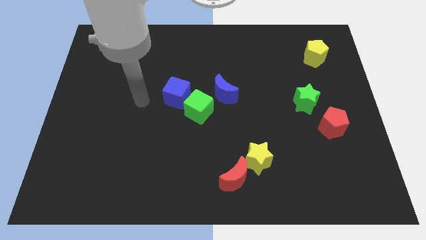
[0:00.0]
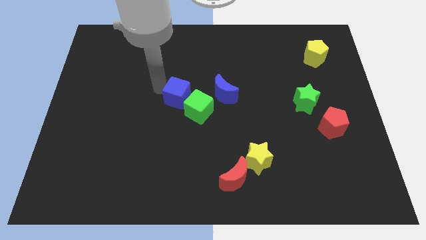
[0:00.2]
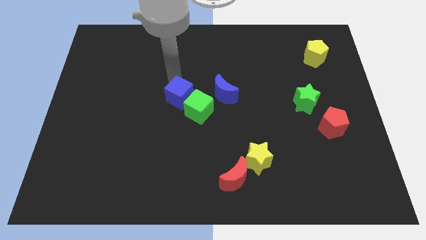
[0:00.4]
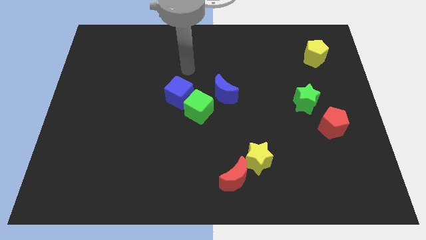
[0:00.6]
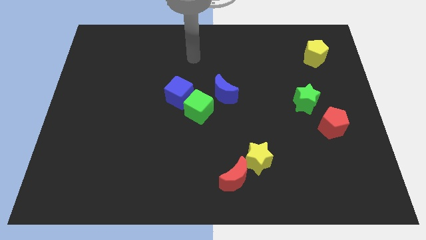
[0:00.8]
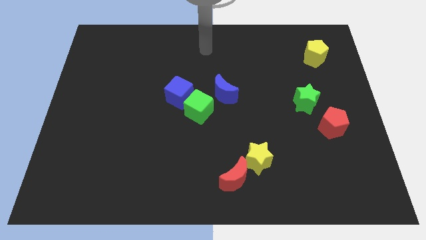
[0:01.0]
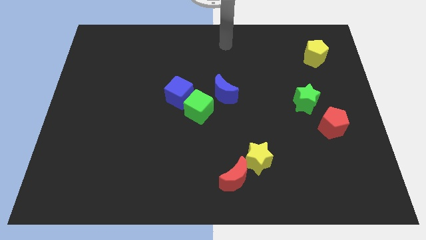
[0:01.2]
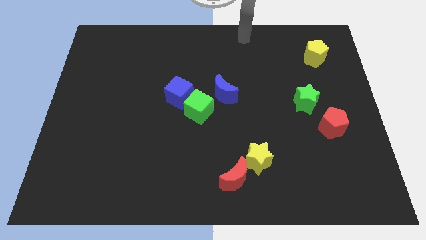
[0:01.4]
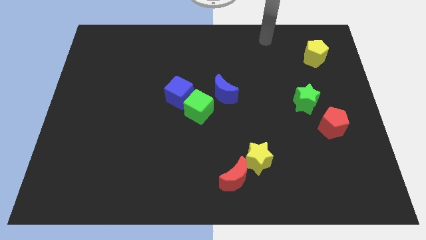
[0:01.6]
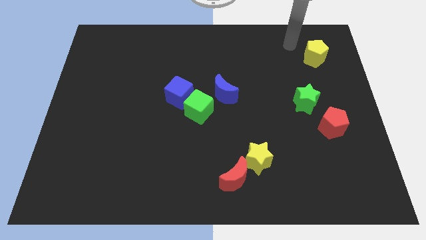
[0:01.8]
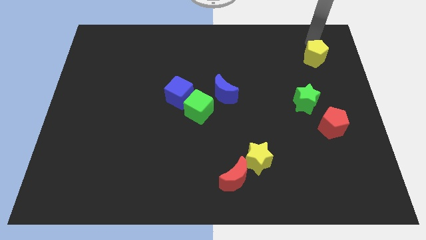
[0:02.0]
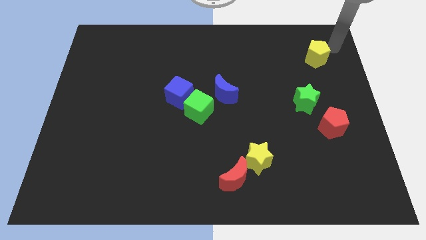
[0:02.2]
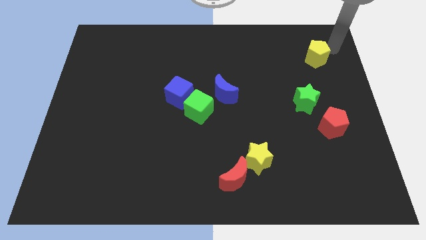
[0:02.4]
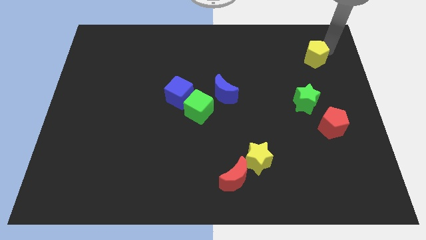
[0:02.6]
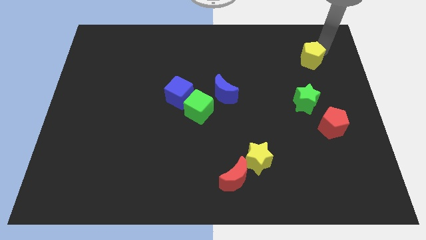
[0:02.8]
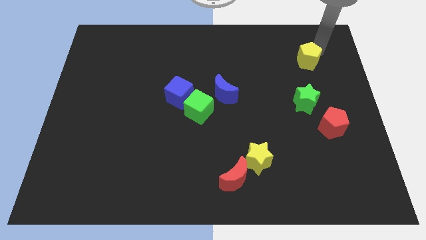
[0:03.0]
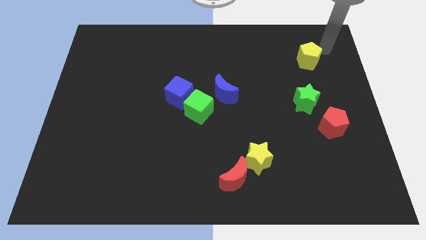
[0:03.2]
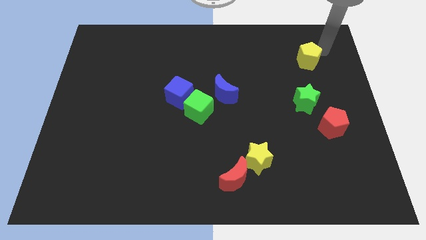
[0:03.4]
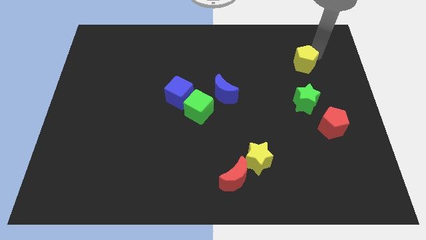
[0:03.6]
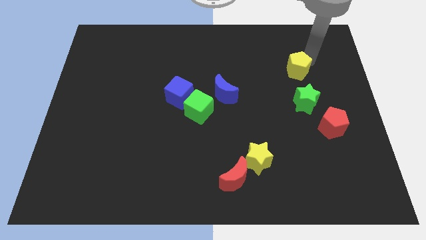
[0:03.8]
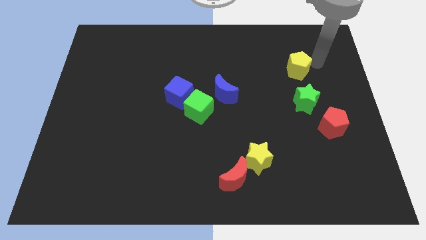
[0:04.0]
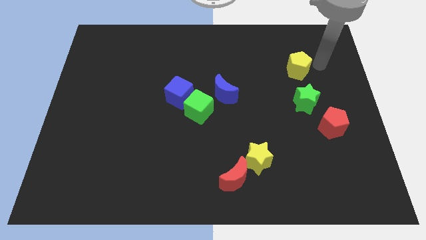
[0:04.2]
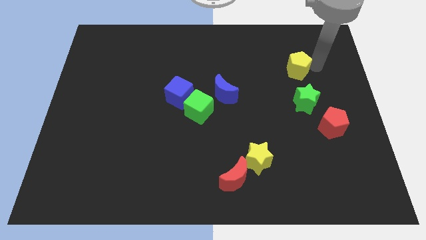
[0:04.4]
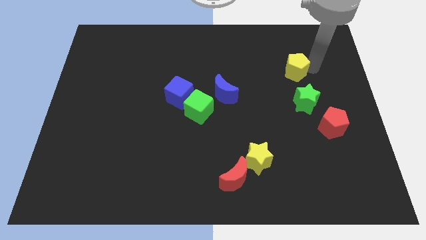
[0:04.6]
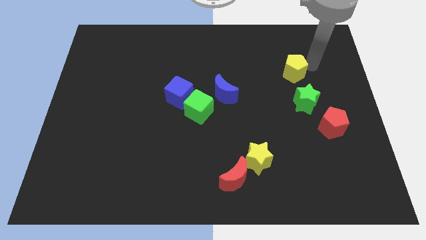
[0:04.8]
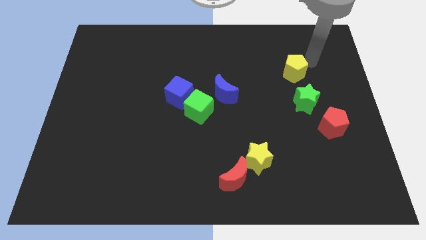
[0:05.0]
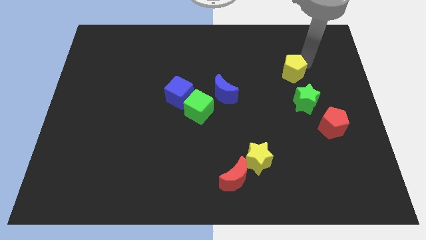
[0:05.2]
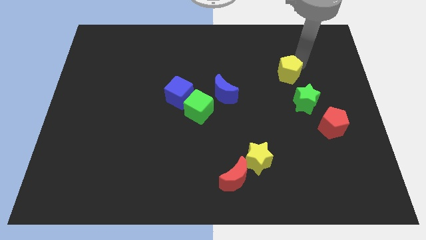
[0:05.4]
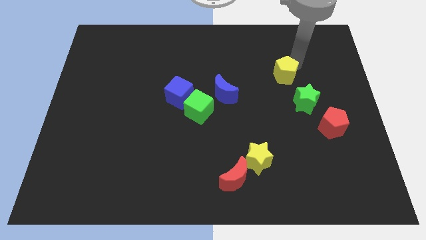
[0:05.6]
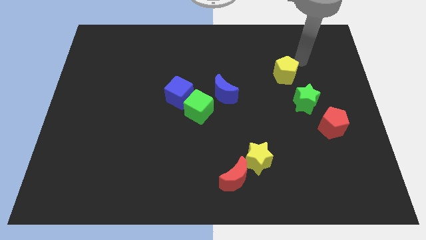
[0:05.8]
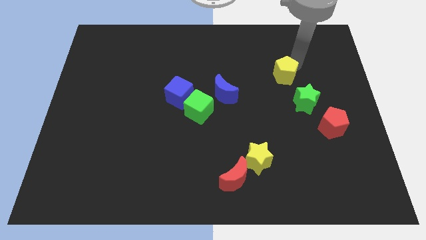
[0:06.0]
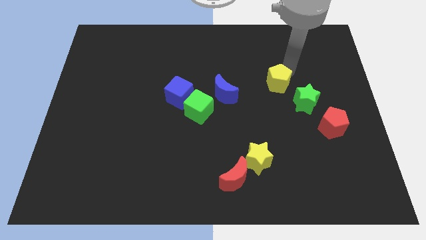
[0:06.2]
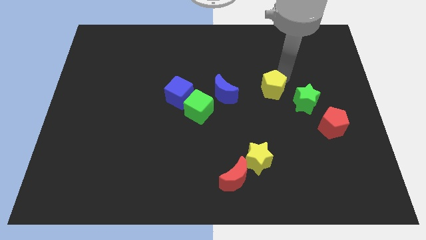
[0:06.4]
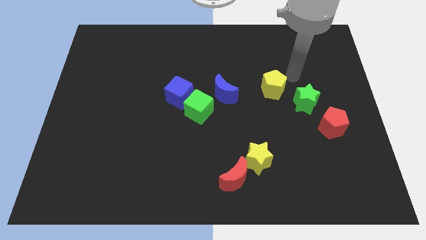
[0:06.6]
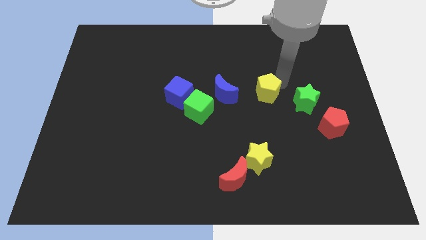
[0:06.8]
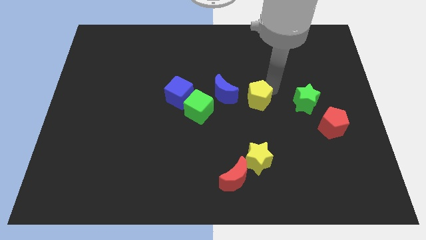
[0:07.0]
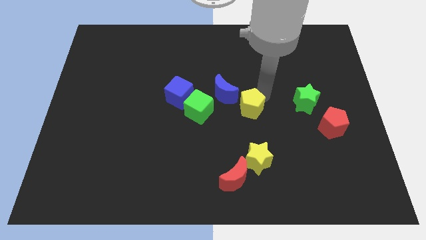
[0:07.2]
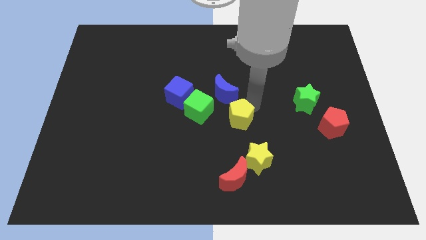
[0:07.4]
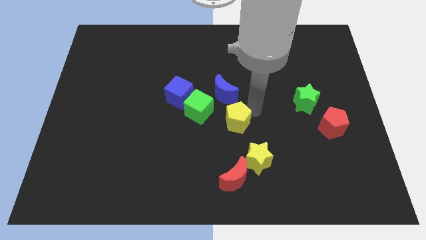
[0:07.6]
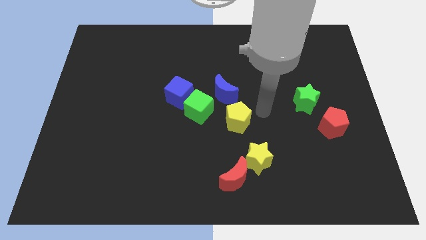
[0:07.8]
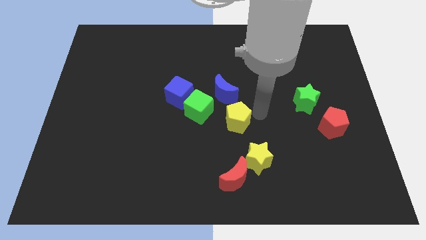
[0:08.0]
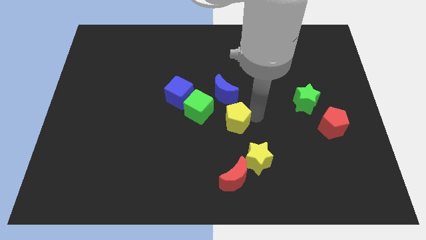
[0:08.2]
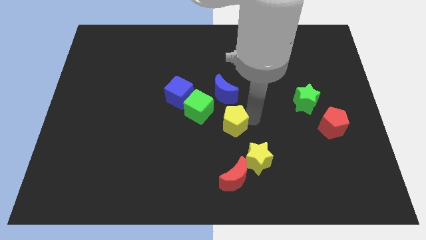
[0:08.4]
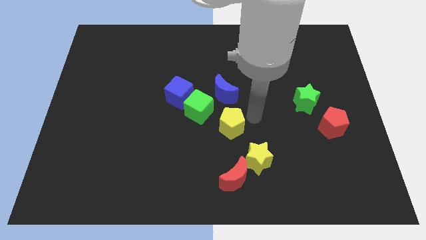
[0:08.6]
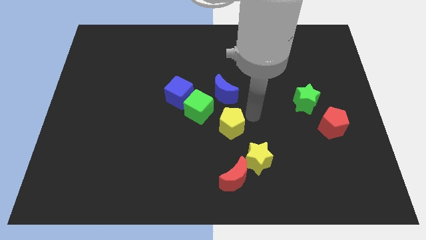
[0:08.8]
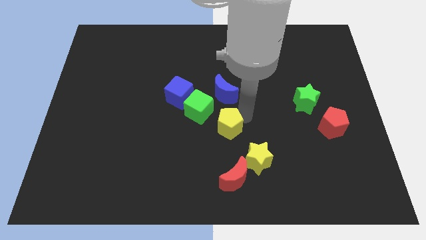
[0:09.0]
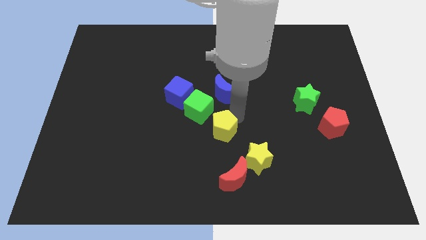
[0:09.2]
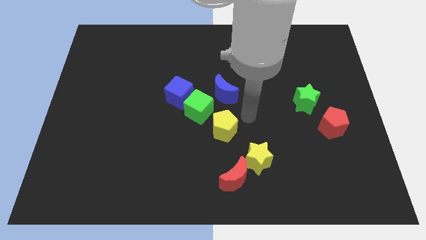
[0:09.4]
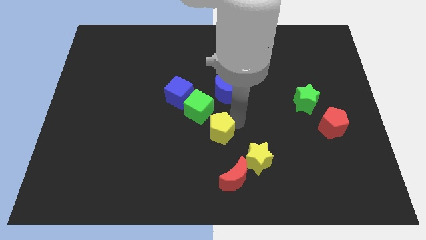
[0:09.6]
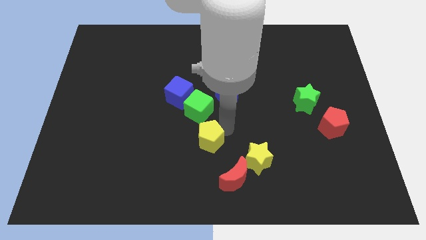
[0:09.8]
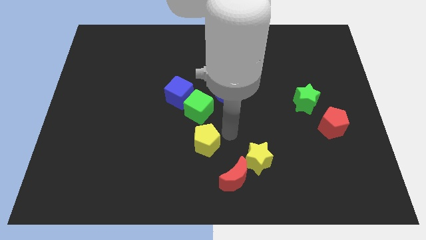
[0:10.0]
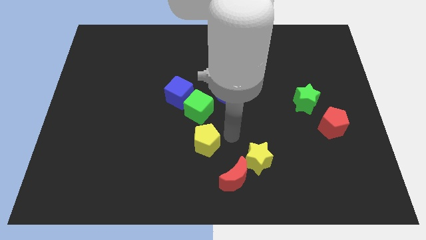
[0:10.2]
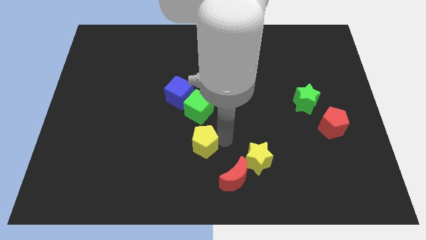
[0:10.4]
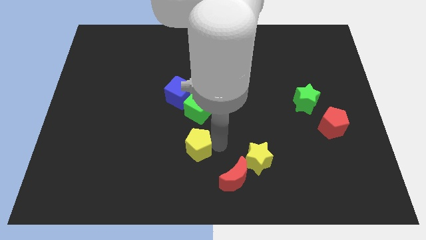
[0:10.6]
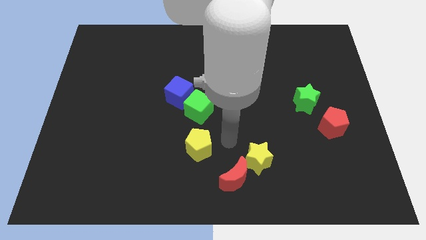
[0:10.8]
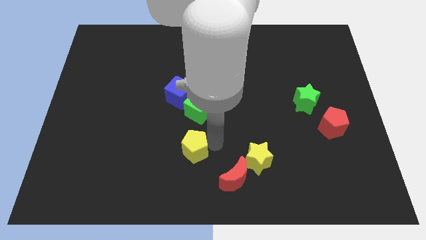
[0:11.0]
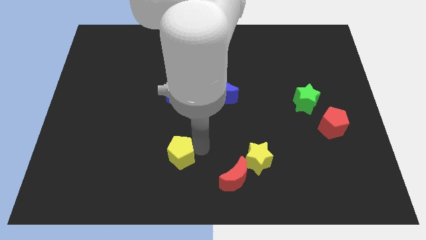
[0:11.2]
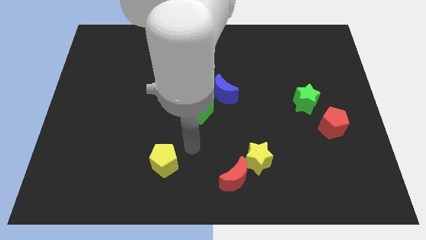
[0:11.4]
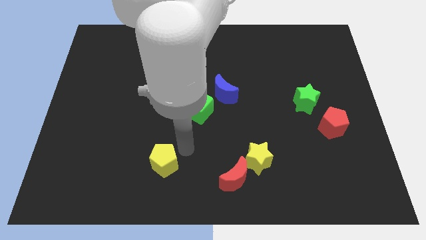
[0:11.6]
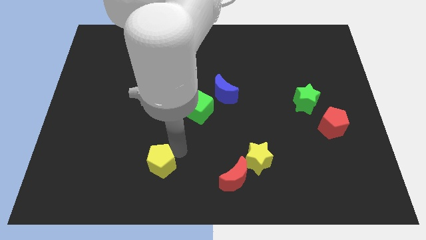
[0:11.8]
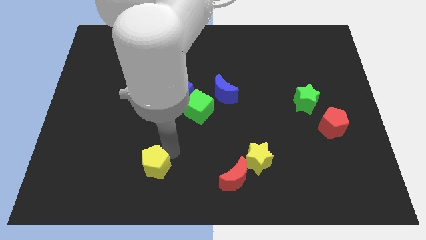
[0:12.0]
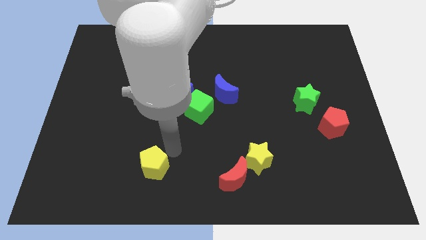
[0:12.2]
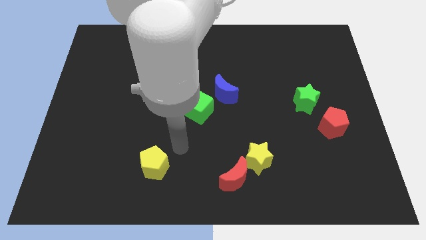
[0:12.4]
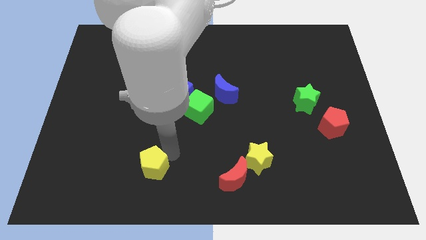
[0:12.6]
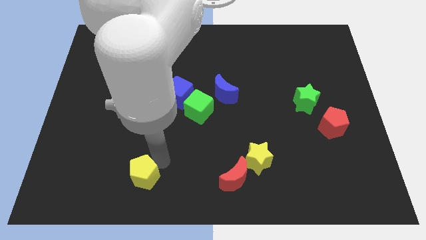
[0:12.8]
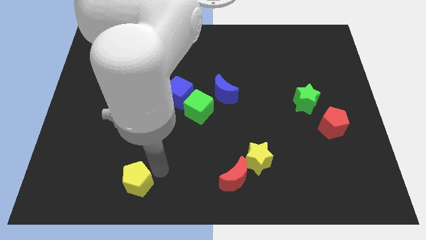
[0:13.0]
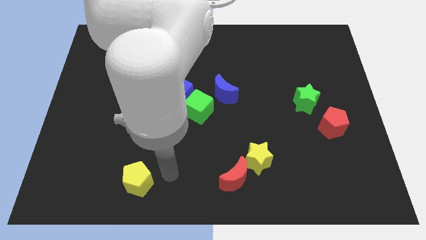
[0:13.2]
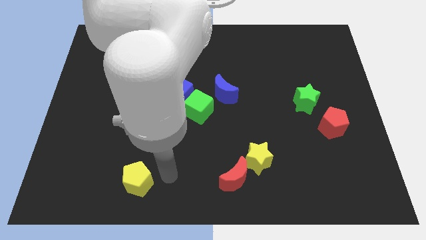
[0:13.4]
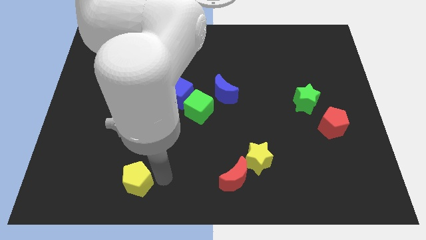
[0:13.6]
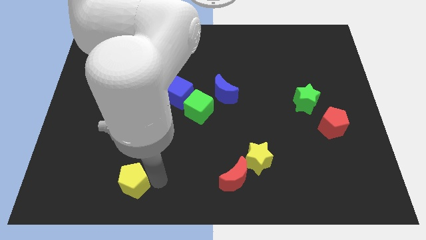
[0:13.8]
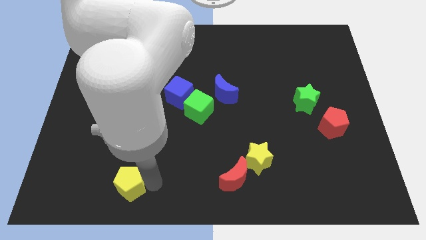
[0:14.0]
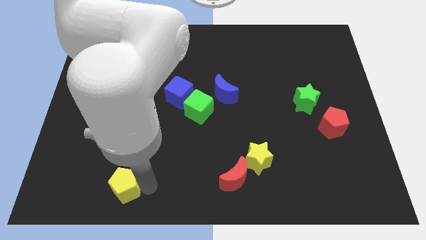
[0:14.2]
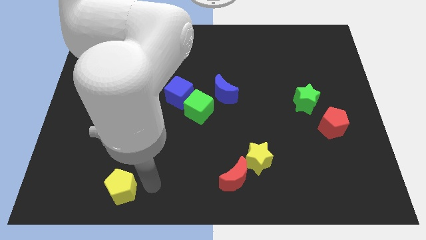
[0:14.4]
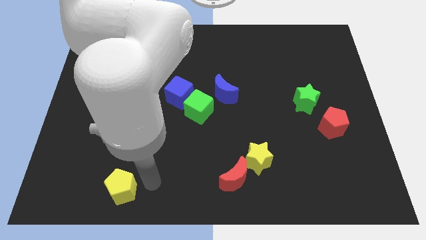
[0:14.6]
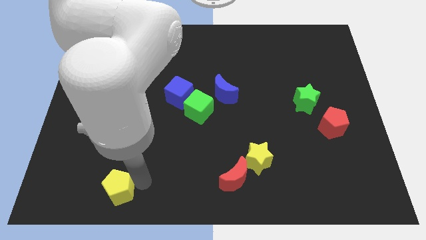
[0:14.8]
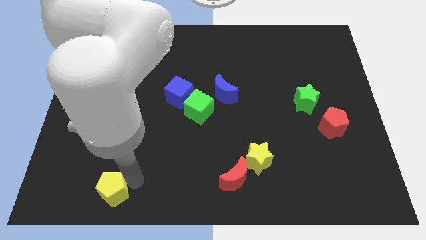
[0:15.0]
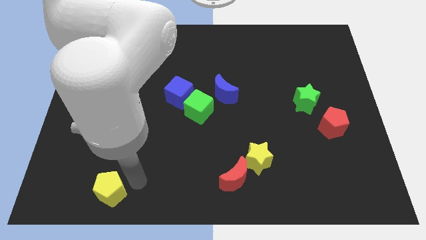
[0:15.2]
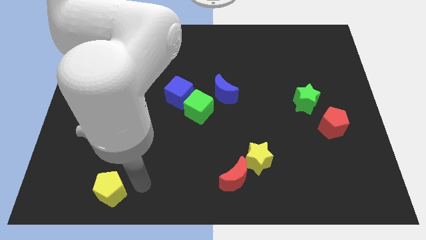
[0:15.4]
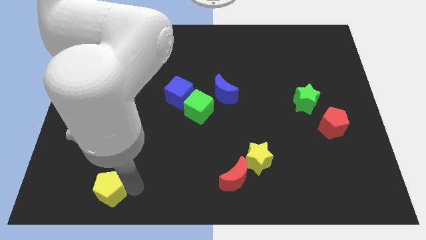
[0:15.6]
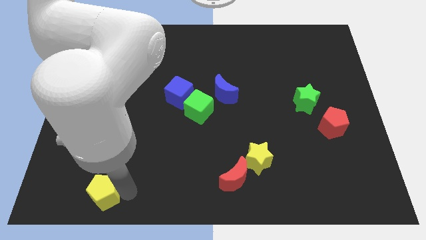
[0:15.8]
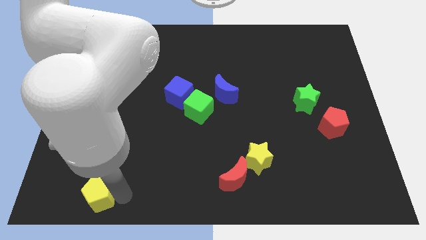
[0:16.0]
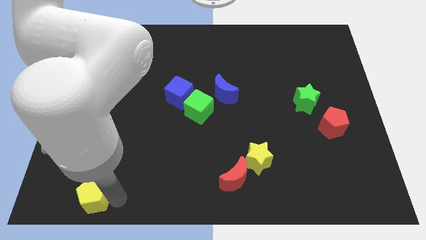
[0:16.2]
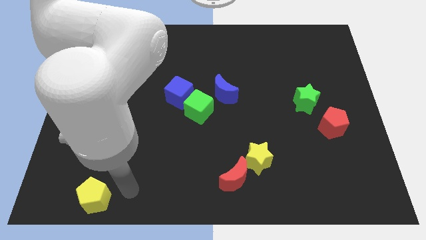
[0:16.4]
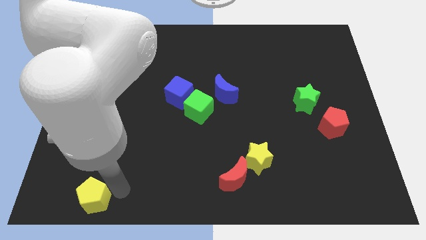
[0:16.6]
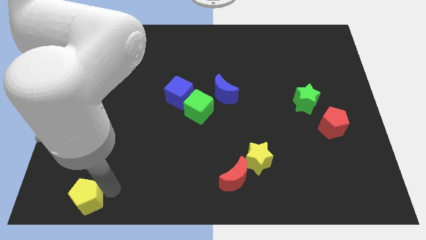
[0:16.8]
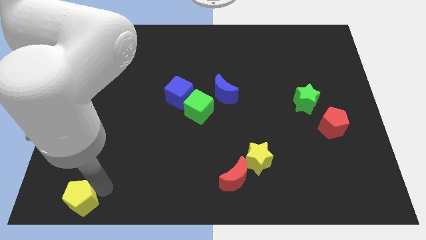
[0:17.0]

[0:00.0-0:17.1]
push the yellow pentagon to the bottom left
